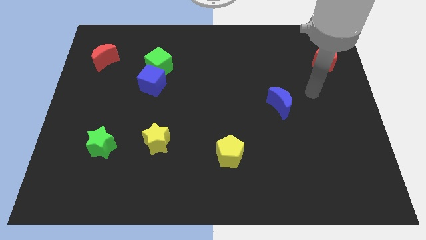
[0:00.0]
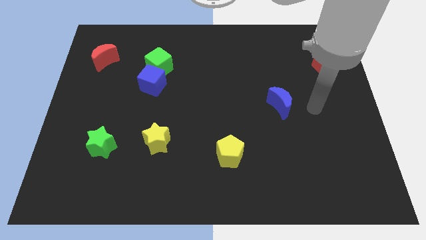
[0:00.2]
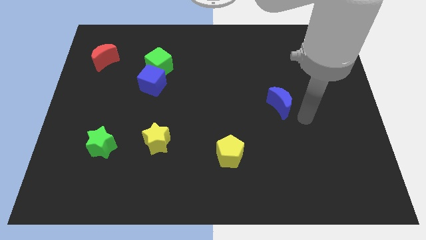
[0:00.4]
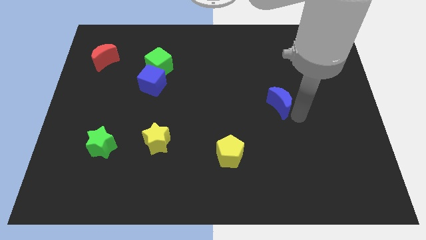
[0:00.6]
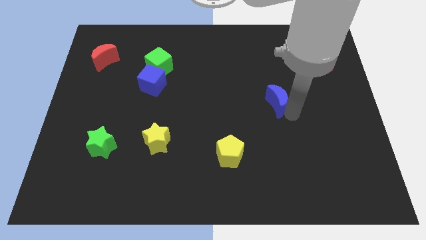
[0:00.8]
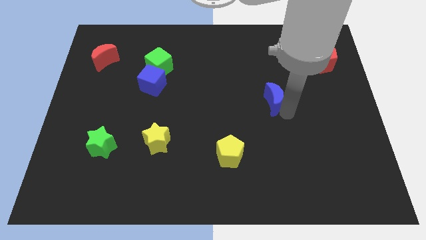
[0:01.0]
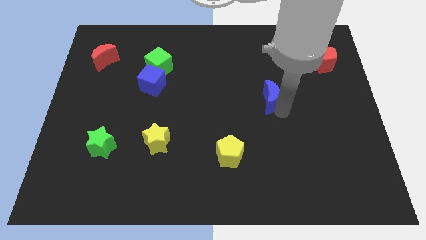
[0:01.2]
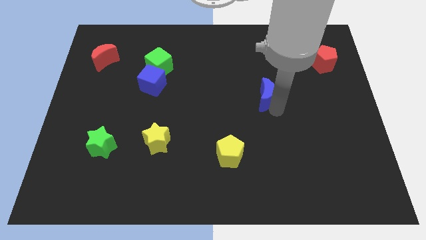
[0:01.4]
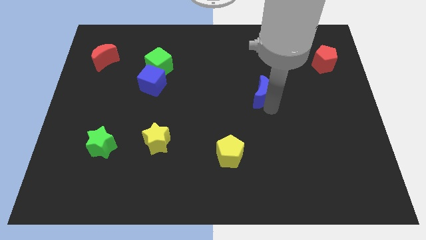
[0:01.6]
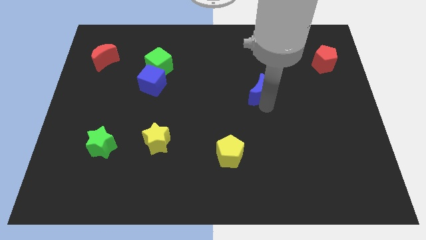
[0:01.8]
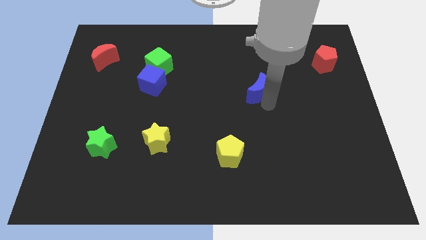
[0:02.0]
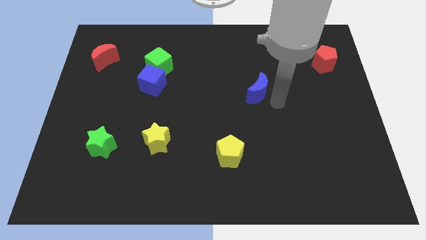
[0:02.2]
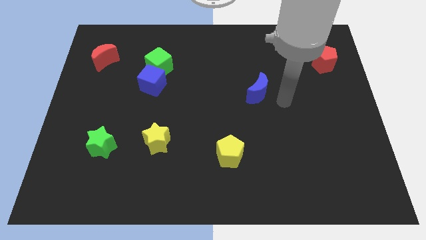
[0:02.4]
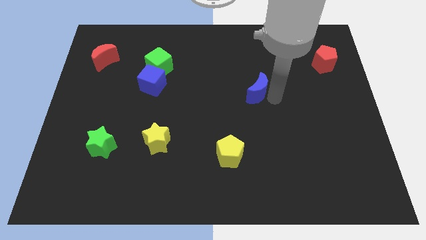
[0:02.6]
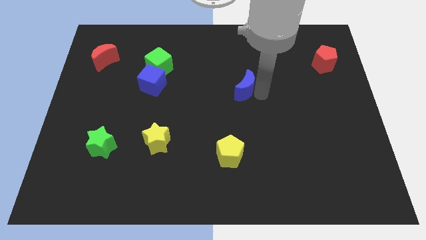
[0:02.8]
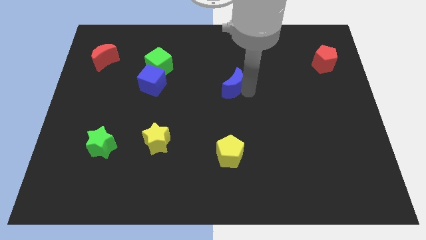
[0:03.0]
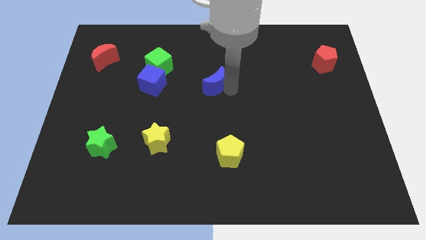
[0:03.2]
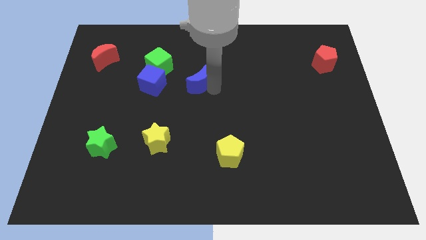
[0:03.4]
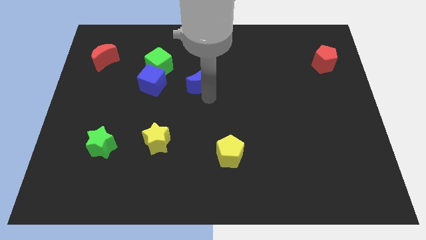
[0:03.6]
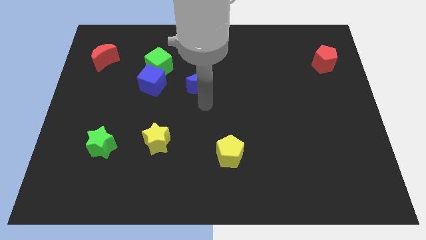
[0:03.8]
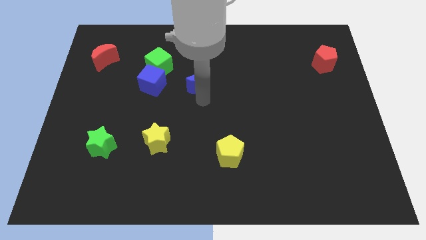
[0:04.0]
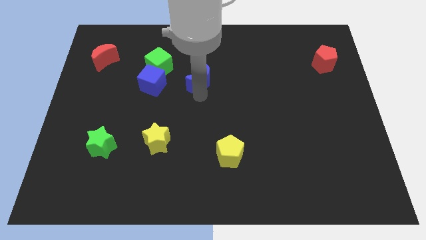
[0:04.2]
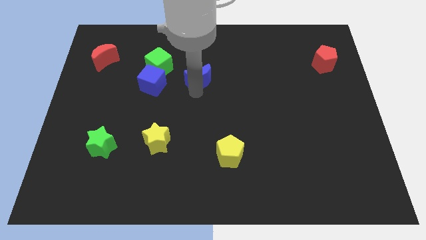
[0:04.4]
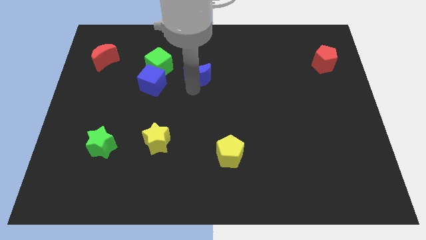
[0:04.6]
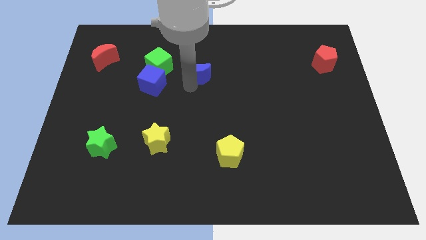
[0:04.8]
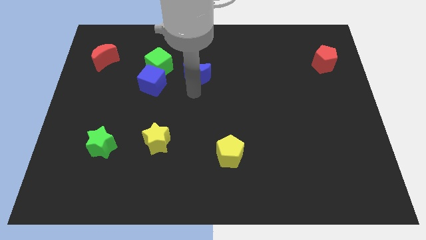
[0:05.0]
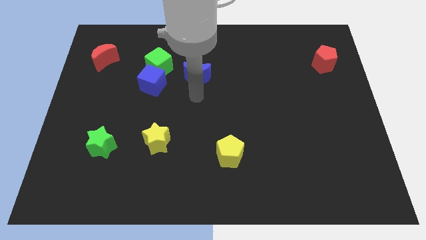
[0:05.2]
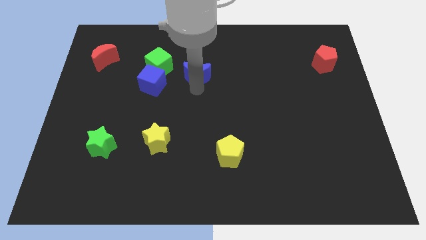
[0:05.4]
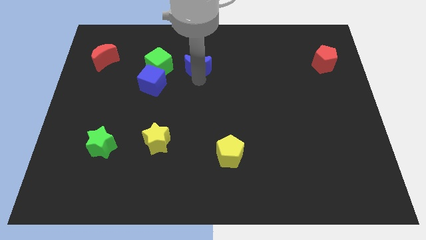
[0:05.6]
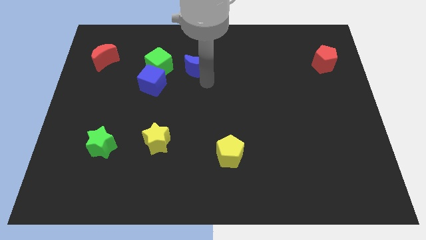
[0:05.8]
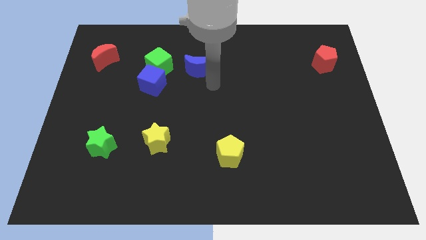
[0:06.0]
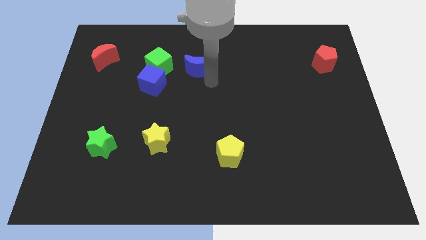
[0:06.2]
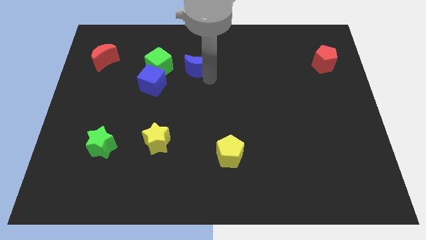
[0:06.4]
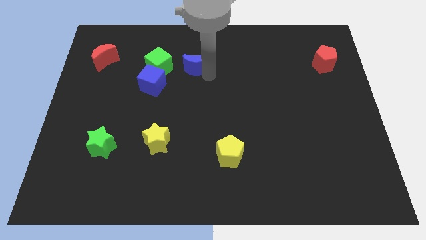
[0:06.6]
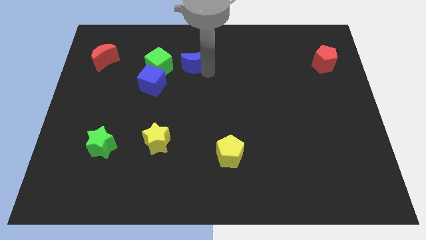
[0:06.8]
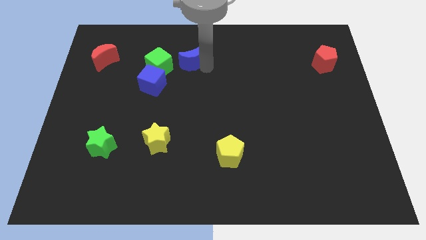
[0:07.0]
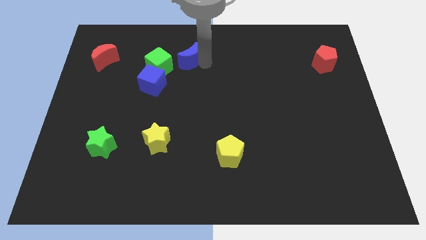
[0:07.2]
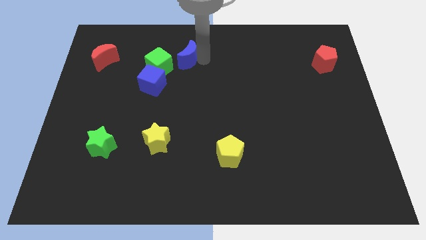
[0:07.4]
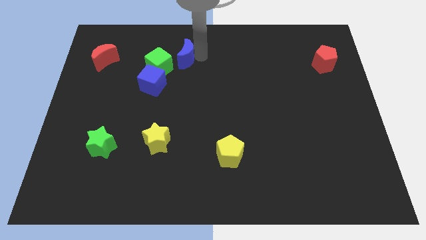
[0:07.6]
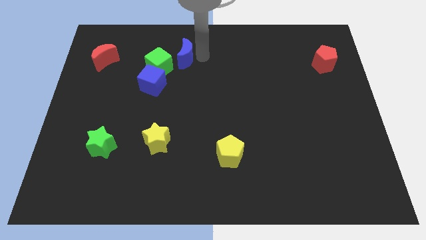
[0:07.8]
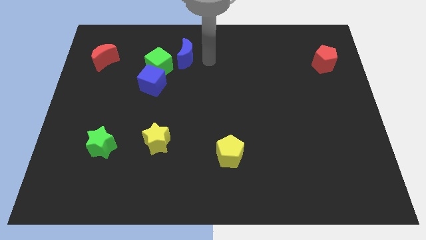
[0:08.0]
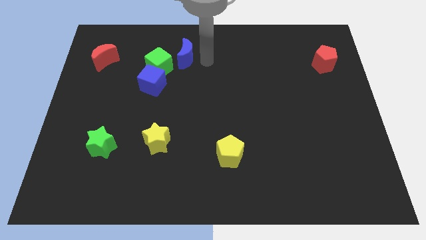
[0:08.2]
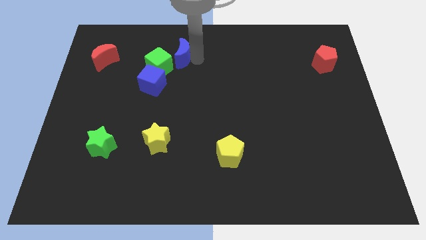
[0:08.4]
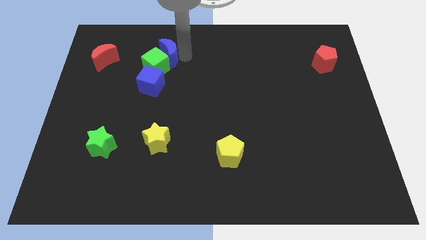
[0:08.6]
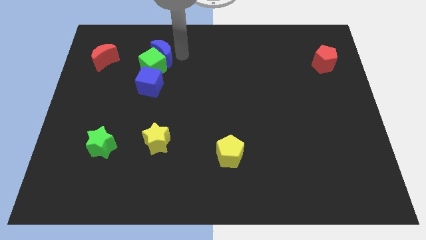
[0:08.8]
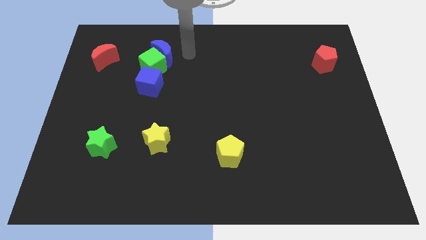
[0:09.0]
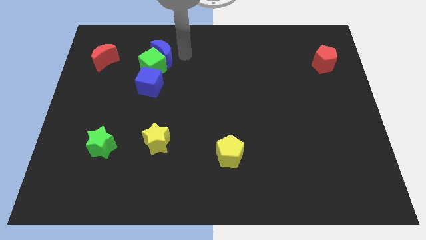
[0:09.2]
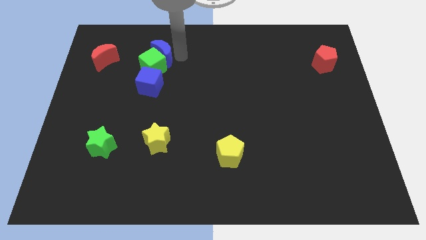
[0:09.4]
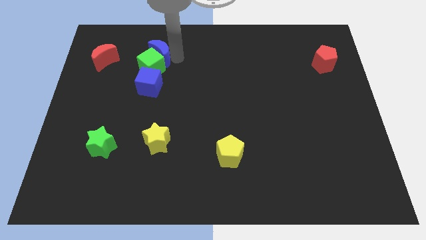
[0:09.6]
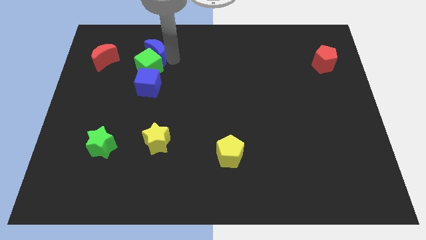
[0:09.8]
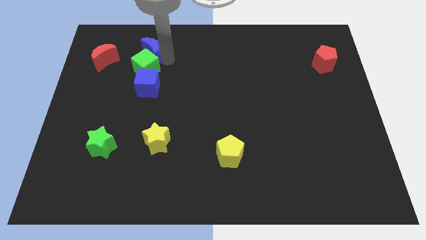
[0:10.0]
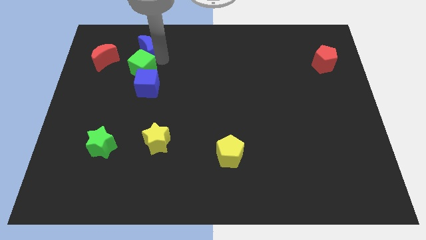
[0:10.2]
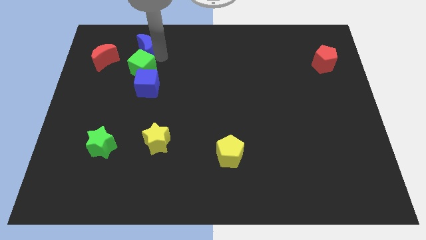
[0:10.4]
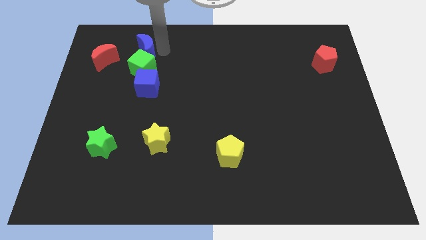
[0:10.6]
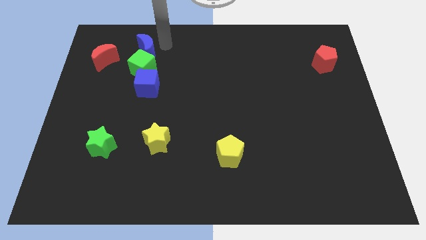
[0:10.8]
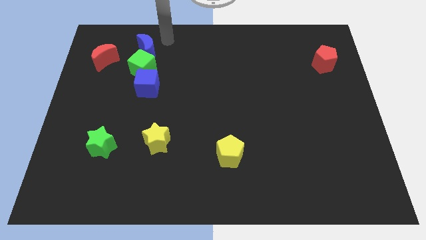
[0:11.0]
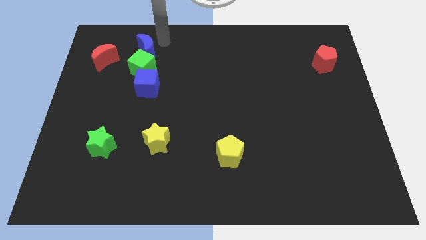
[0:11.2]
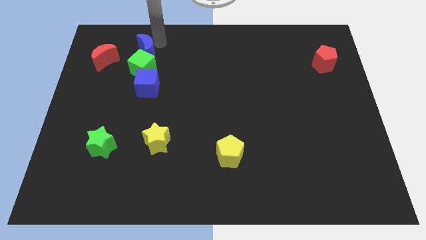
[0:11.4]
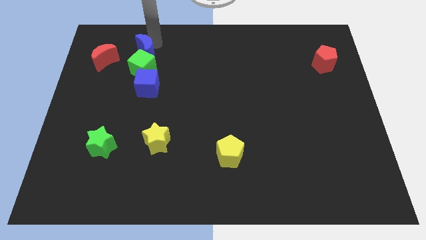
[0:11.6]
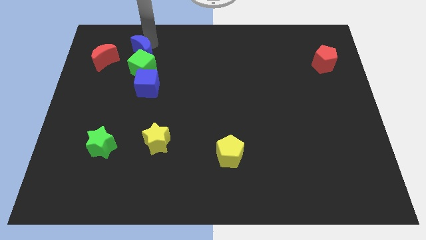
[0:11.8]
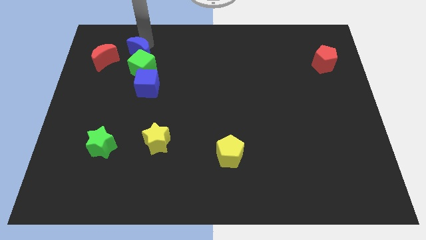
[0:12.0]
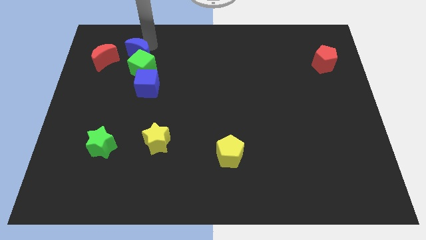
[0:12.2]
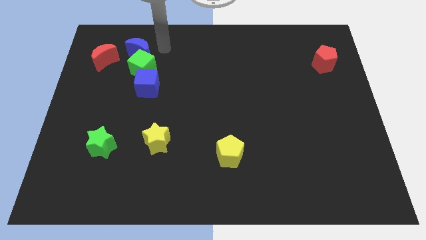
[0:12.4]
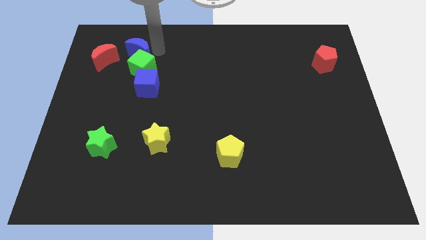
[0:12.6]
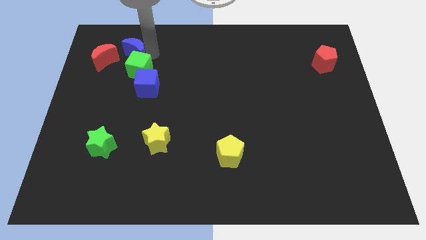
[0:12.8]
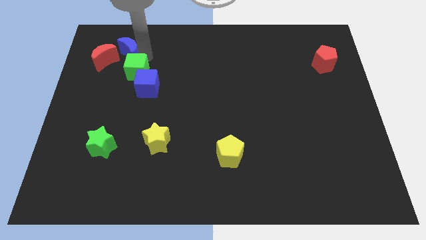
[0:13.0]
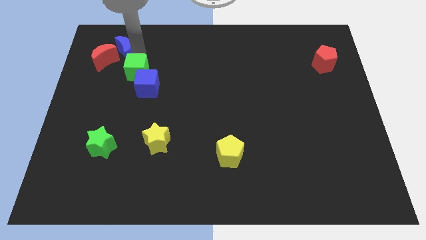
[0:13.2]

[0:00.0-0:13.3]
slide the blue moon next to the red moon

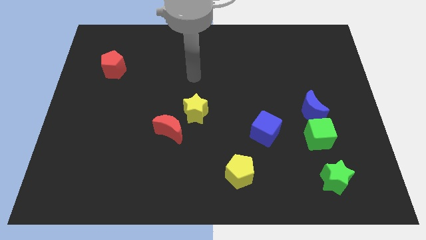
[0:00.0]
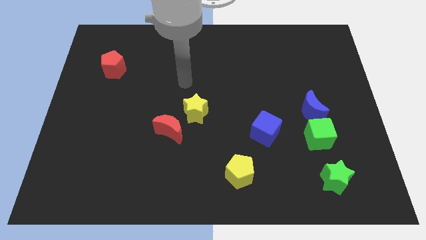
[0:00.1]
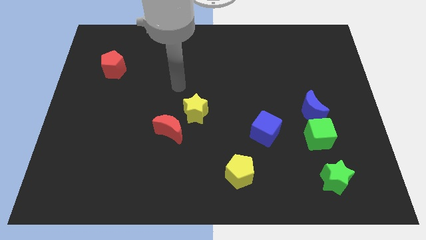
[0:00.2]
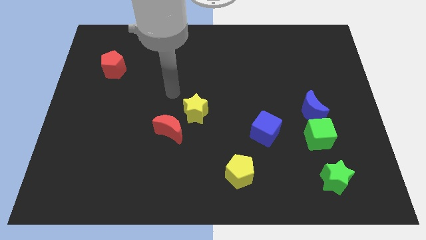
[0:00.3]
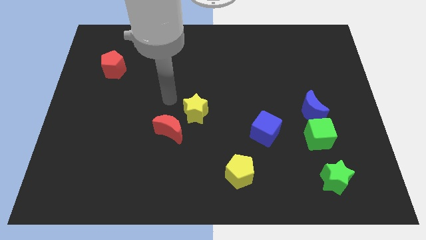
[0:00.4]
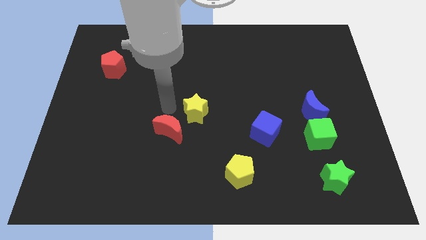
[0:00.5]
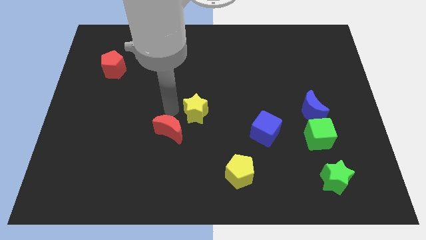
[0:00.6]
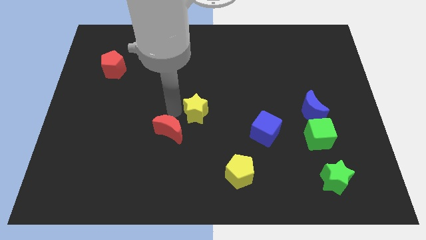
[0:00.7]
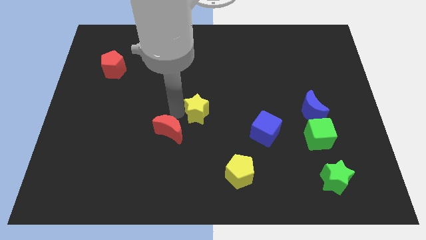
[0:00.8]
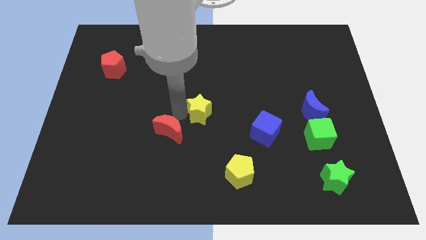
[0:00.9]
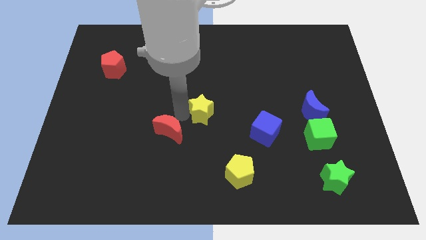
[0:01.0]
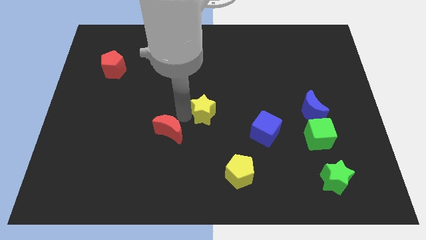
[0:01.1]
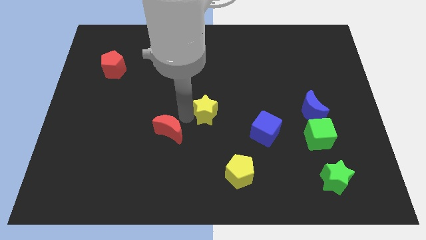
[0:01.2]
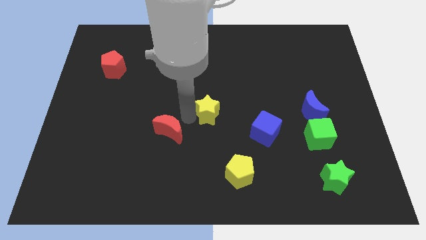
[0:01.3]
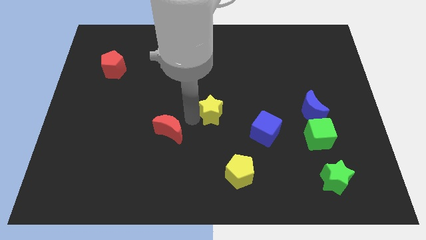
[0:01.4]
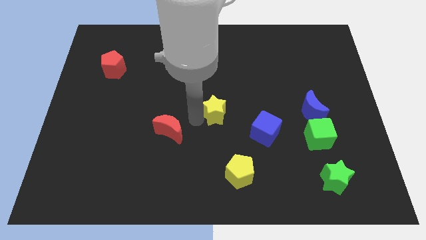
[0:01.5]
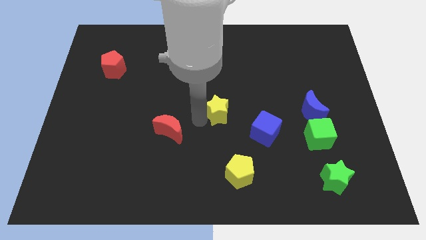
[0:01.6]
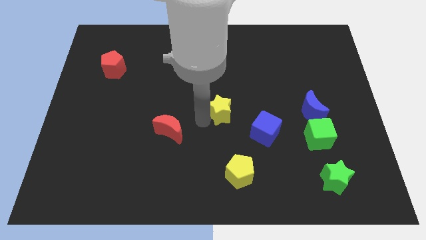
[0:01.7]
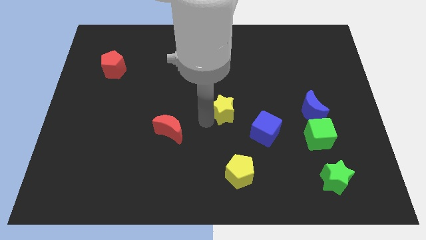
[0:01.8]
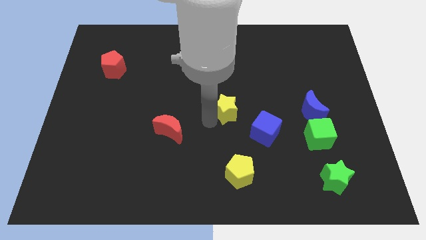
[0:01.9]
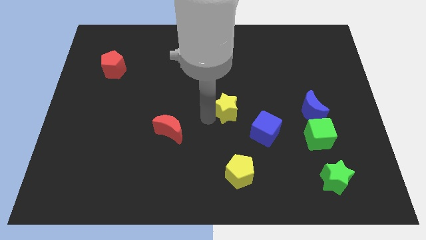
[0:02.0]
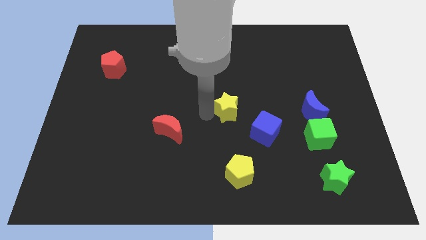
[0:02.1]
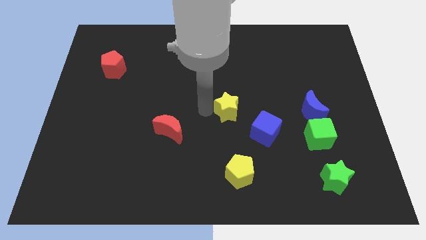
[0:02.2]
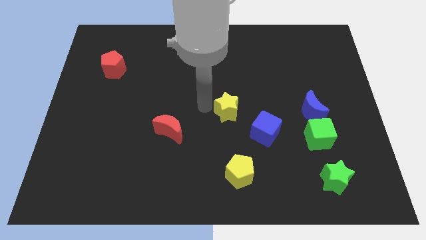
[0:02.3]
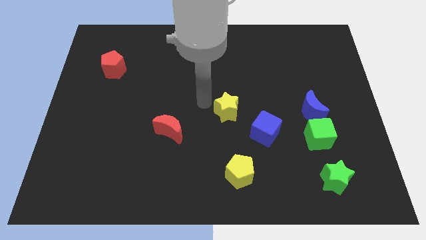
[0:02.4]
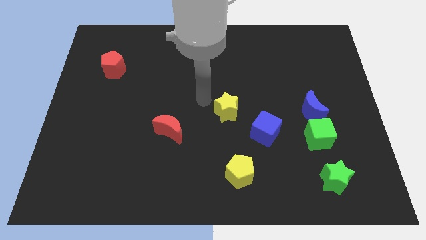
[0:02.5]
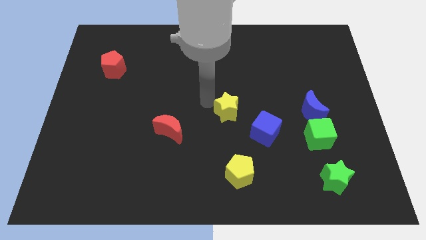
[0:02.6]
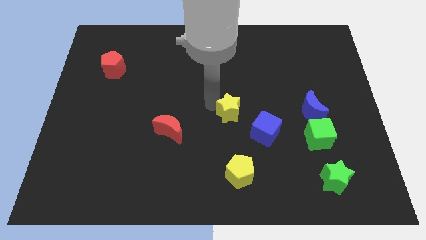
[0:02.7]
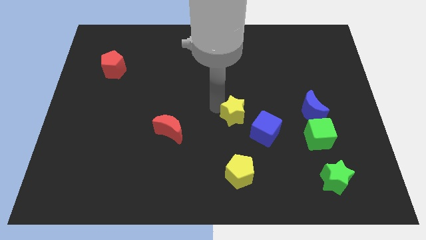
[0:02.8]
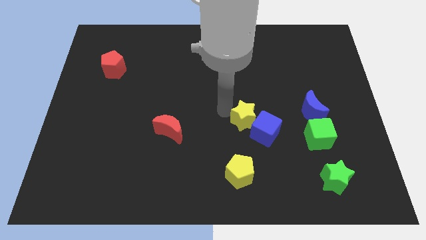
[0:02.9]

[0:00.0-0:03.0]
push the yellow star next to the blue cube
